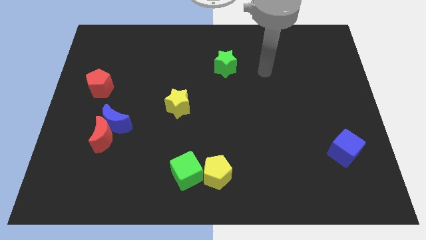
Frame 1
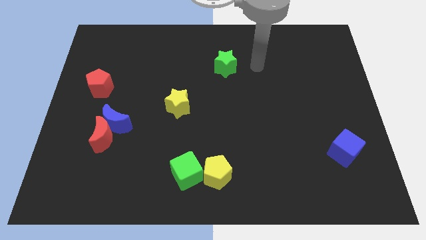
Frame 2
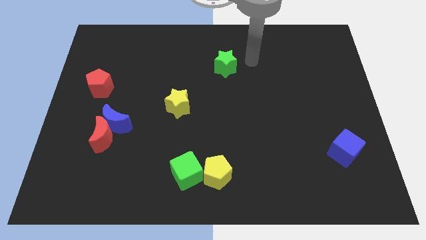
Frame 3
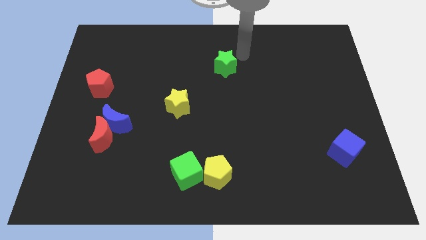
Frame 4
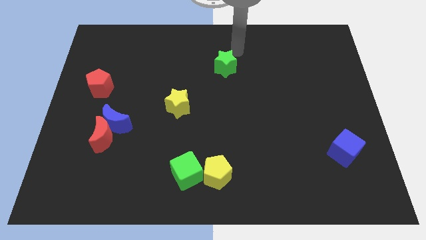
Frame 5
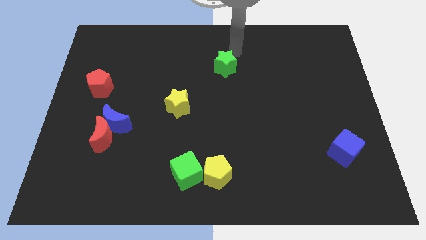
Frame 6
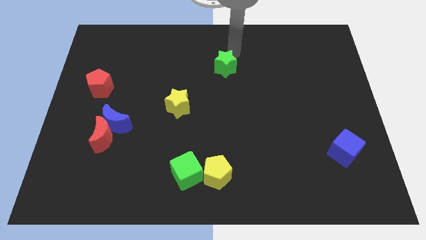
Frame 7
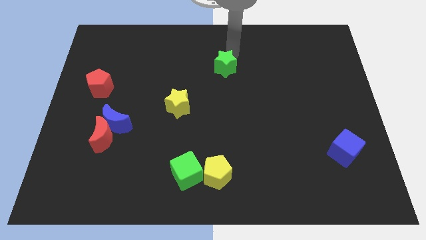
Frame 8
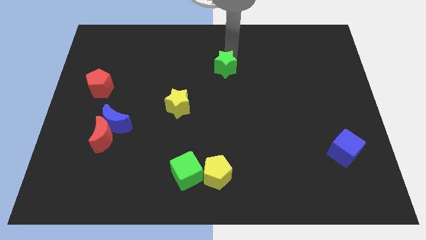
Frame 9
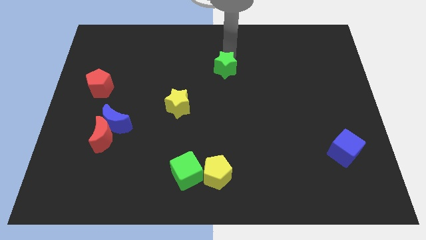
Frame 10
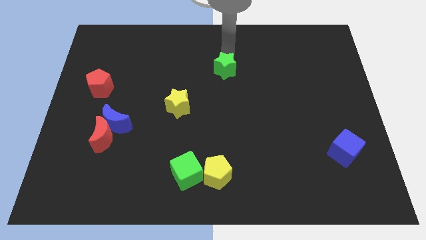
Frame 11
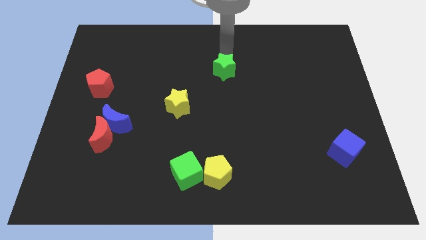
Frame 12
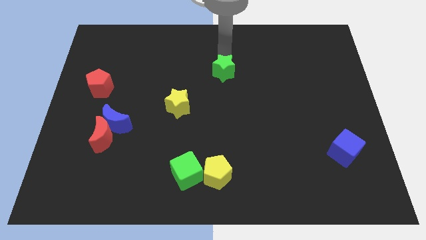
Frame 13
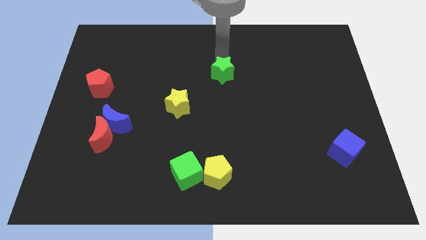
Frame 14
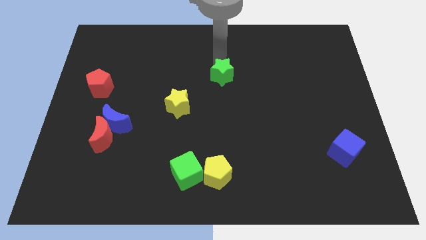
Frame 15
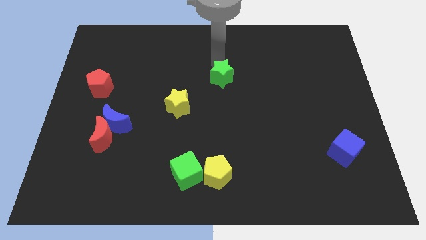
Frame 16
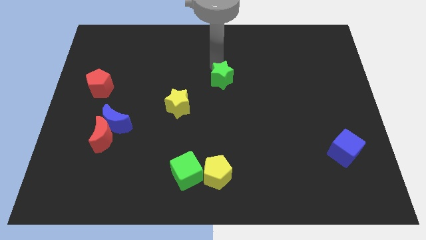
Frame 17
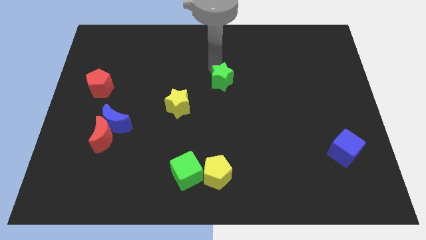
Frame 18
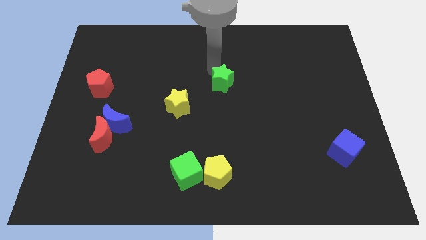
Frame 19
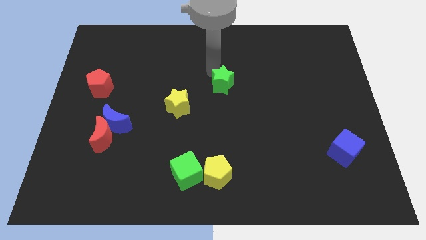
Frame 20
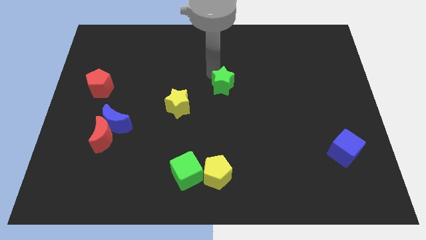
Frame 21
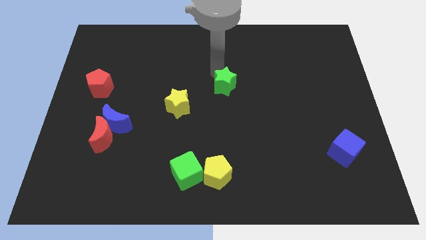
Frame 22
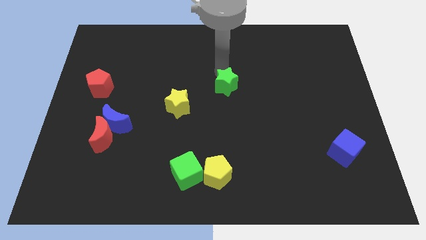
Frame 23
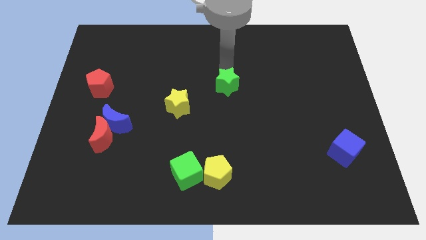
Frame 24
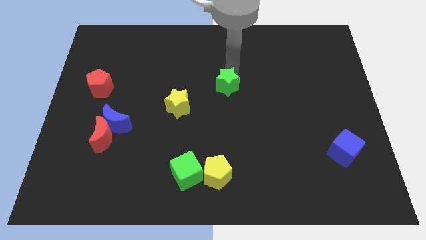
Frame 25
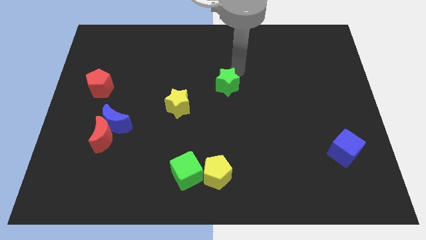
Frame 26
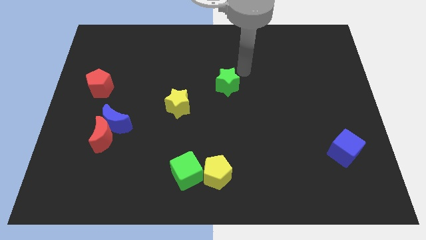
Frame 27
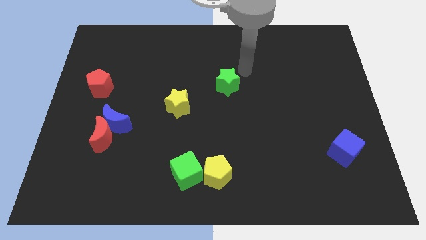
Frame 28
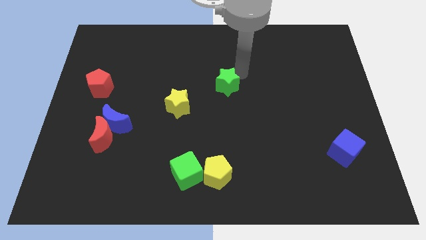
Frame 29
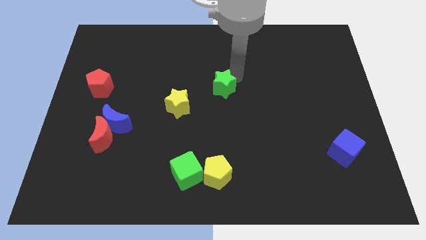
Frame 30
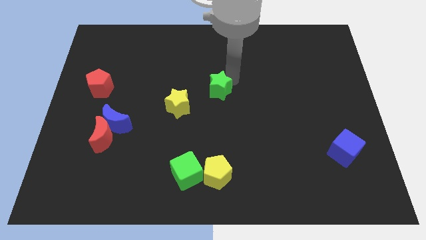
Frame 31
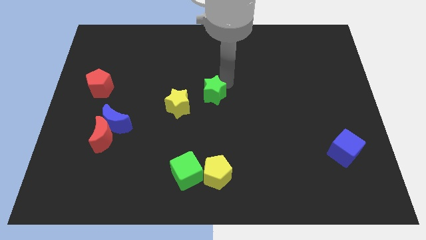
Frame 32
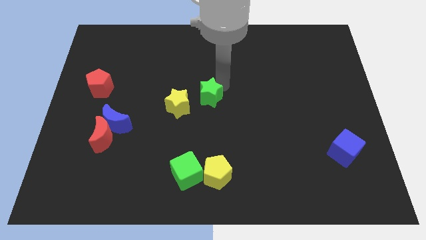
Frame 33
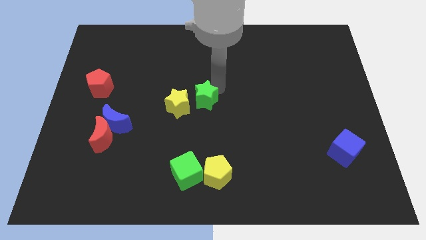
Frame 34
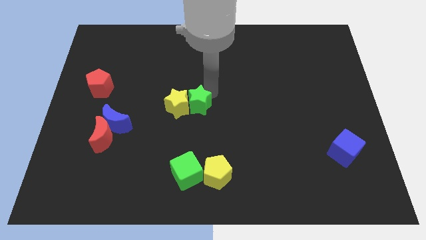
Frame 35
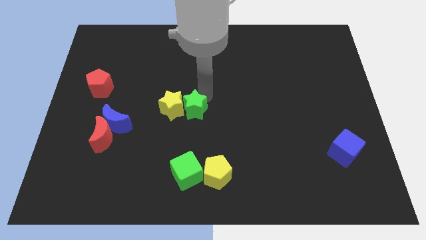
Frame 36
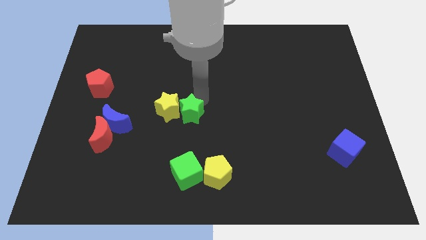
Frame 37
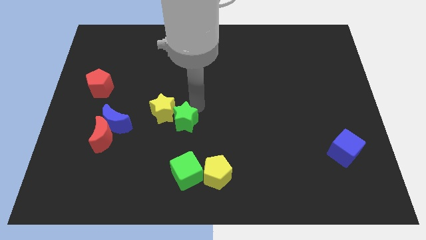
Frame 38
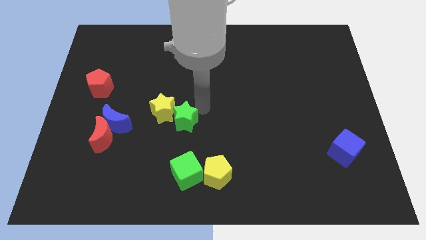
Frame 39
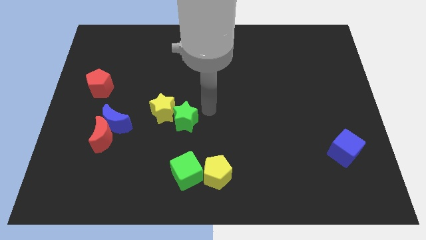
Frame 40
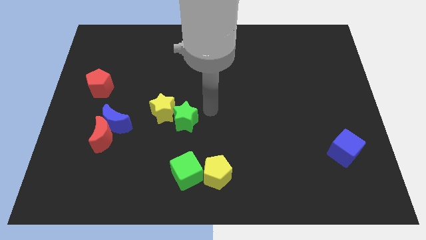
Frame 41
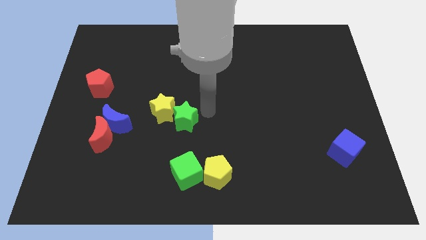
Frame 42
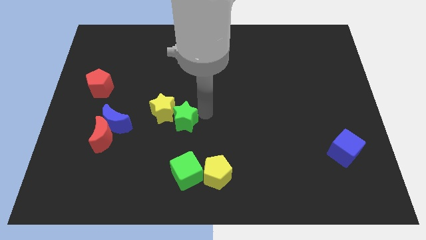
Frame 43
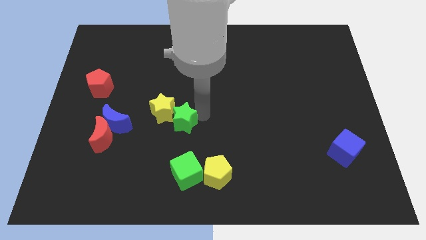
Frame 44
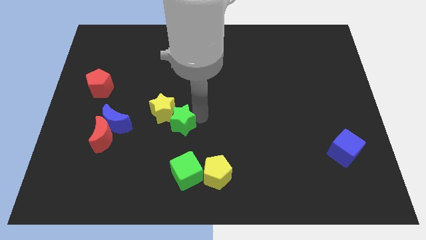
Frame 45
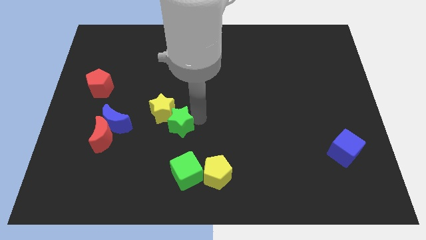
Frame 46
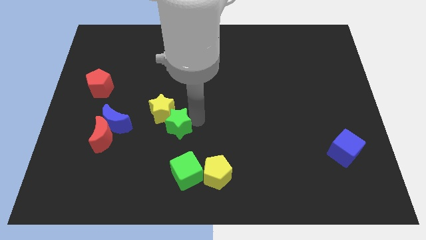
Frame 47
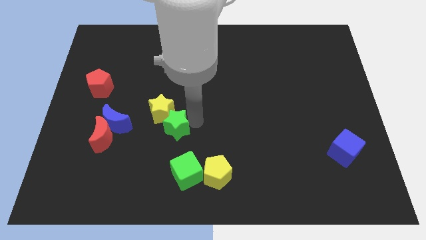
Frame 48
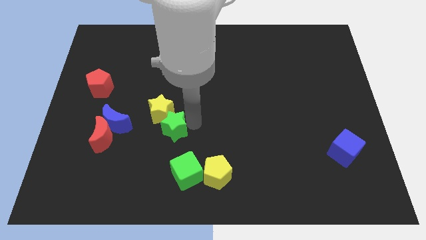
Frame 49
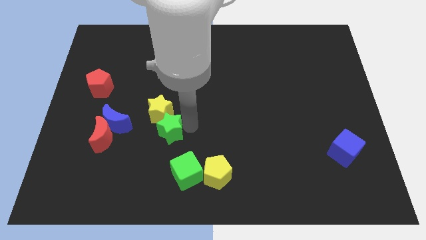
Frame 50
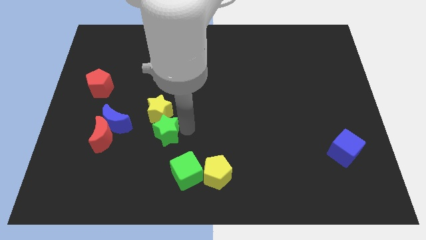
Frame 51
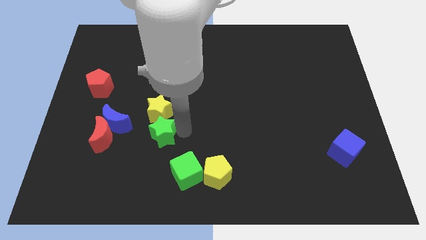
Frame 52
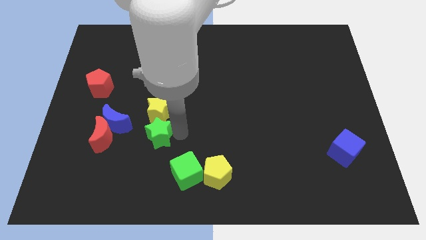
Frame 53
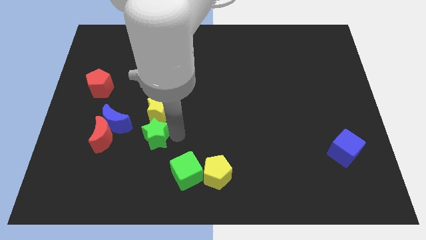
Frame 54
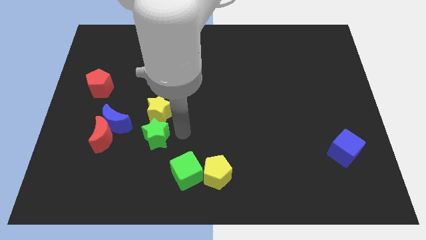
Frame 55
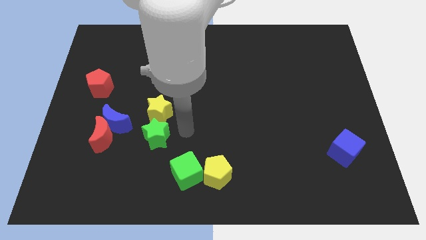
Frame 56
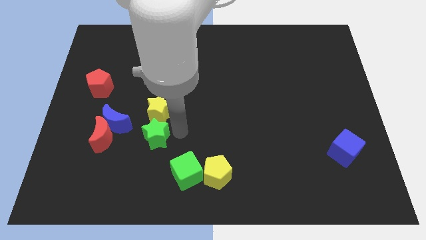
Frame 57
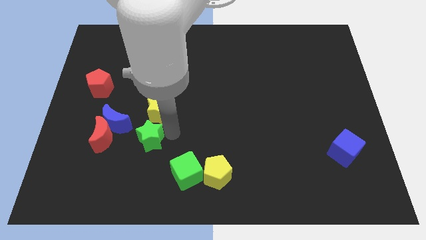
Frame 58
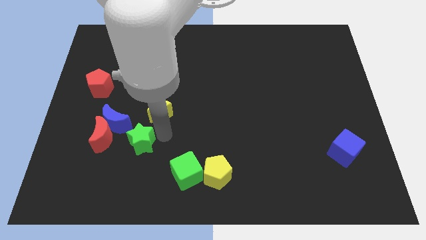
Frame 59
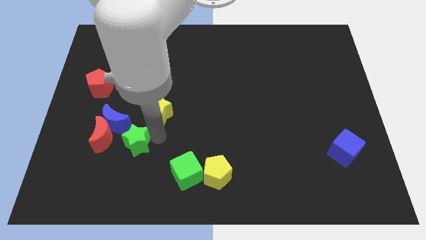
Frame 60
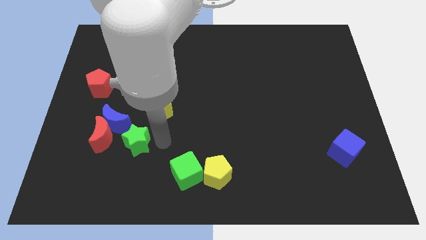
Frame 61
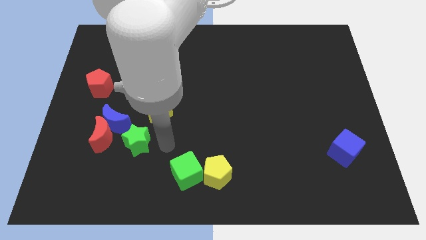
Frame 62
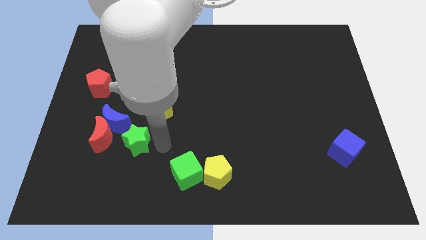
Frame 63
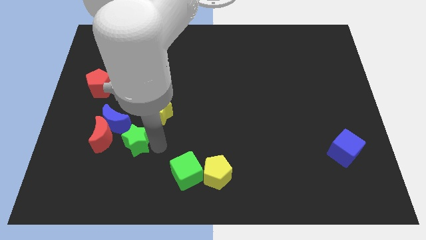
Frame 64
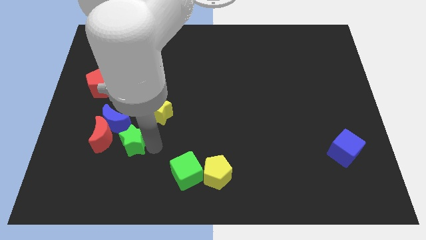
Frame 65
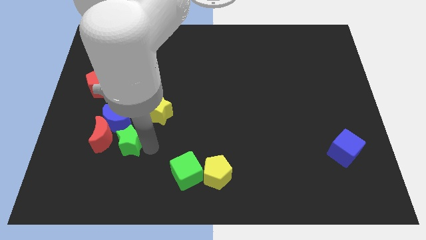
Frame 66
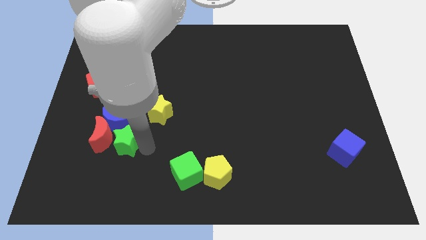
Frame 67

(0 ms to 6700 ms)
put the green star next to the red moon

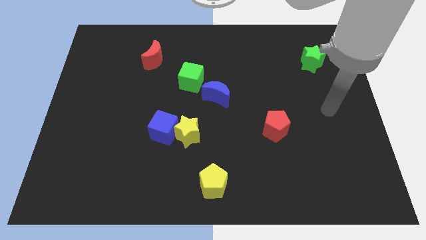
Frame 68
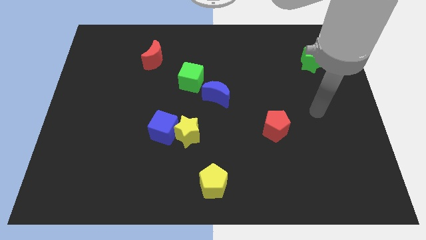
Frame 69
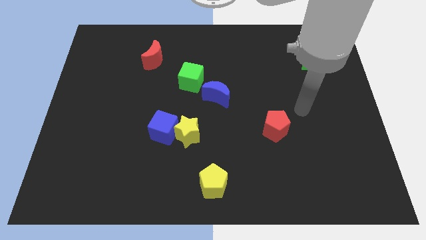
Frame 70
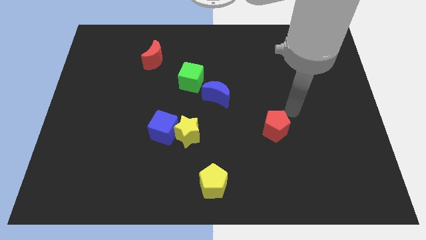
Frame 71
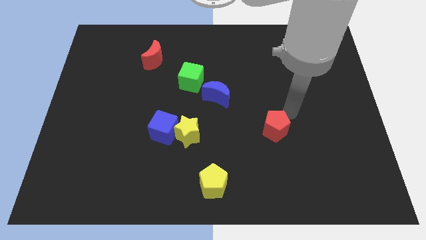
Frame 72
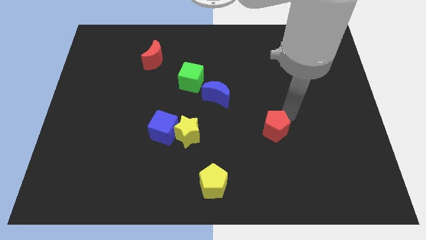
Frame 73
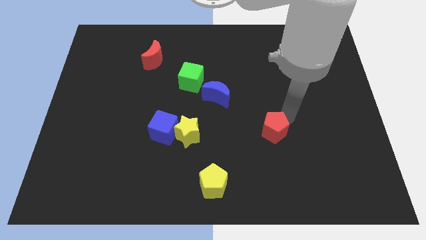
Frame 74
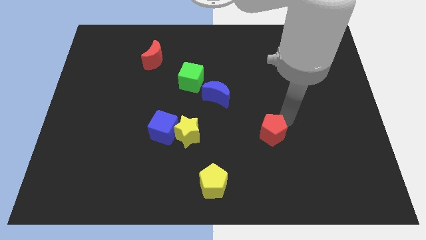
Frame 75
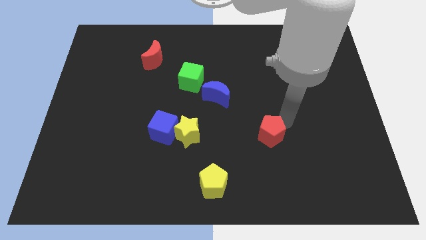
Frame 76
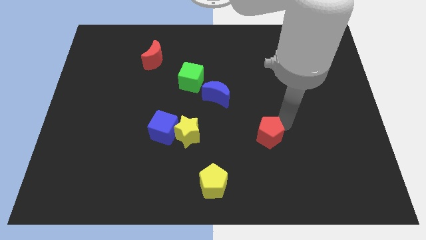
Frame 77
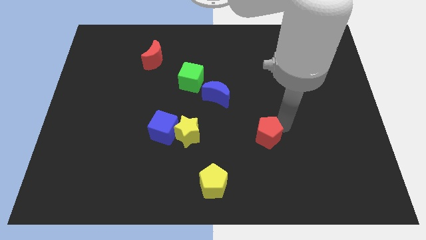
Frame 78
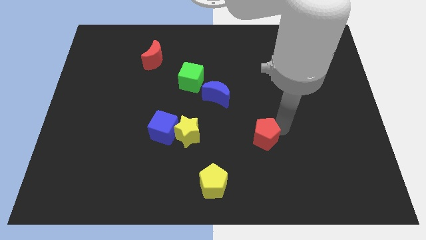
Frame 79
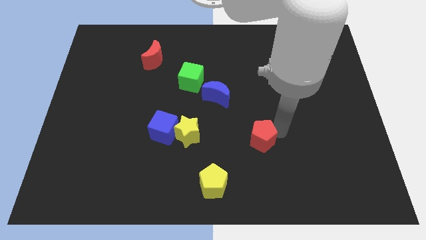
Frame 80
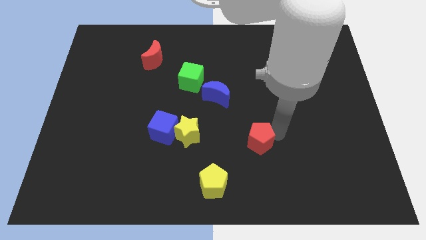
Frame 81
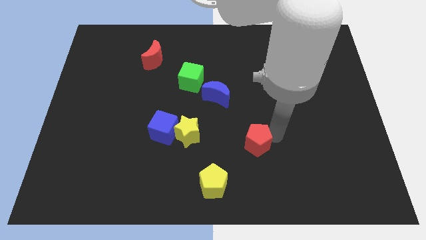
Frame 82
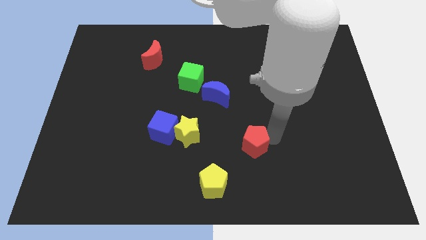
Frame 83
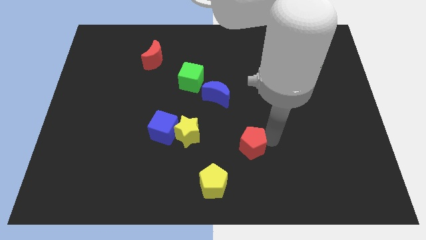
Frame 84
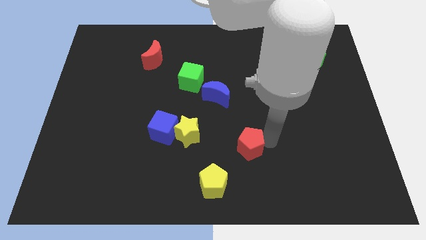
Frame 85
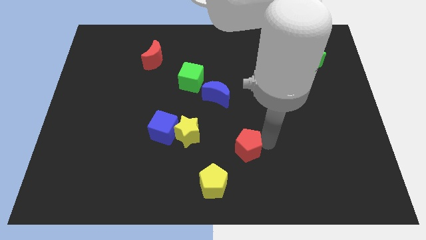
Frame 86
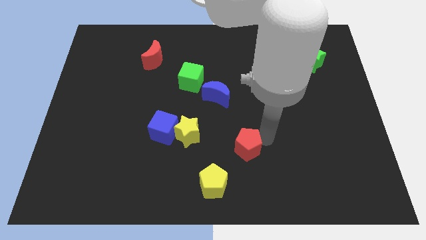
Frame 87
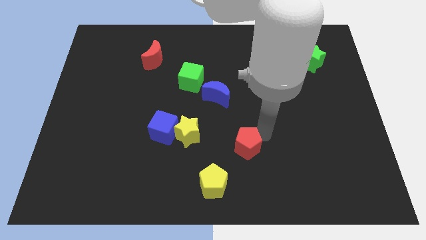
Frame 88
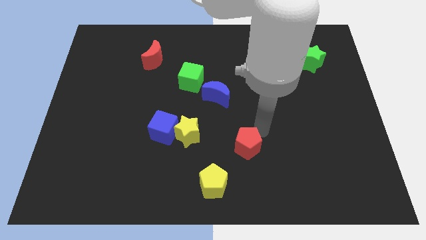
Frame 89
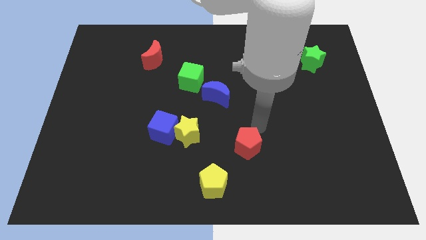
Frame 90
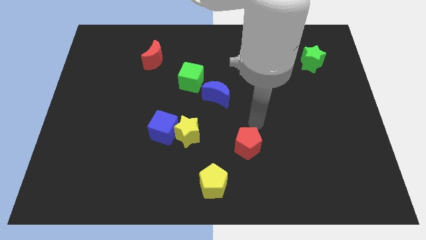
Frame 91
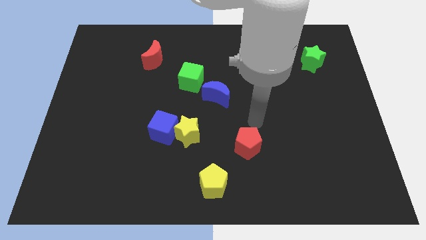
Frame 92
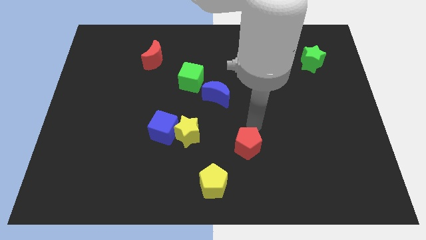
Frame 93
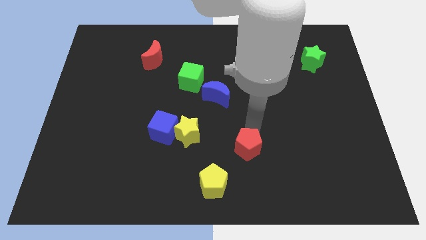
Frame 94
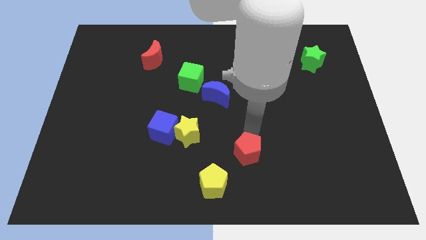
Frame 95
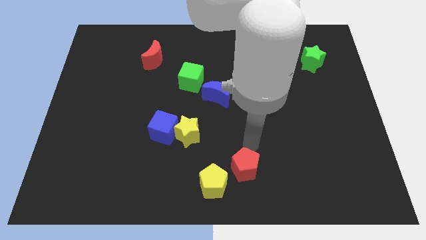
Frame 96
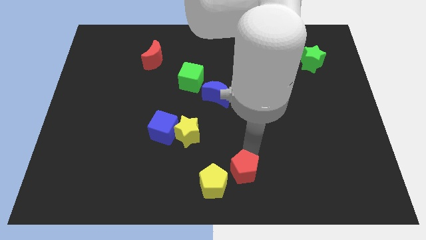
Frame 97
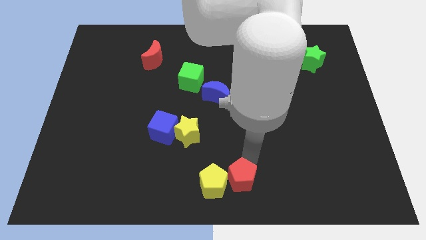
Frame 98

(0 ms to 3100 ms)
put the red pentagon towards the yellow pentagon
